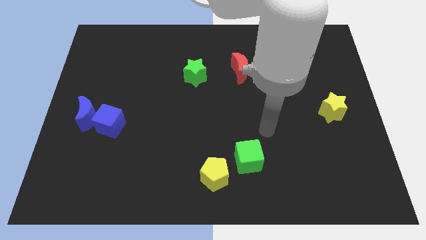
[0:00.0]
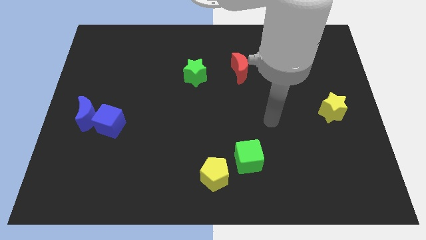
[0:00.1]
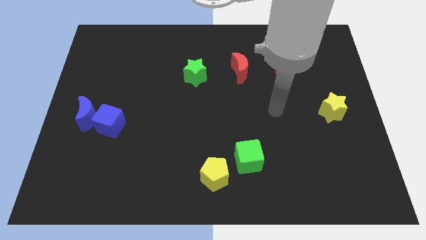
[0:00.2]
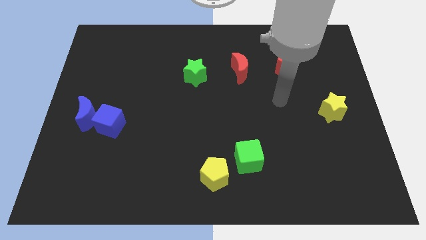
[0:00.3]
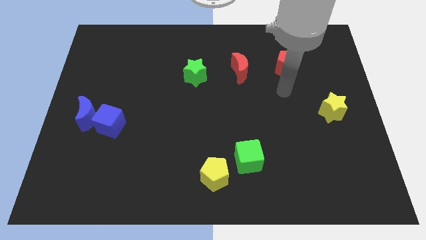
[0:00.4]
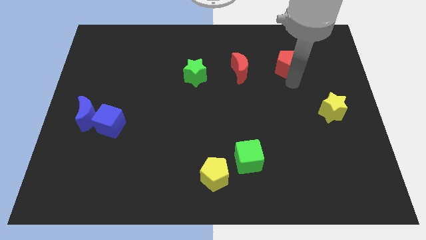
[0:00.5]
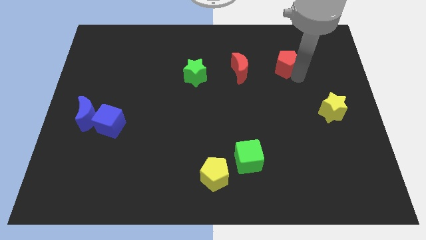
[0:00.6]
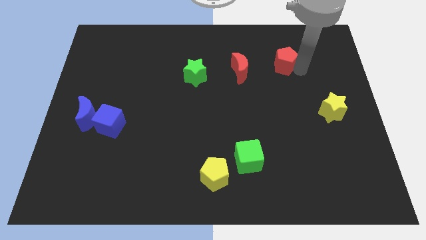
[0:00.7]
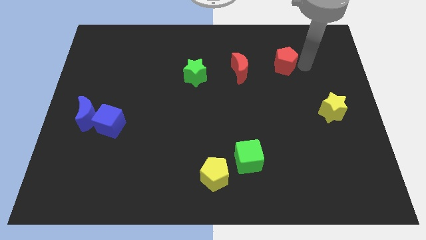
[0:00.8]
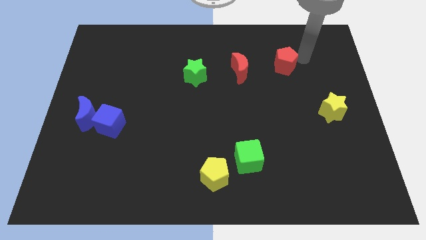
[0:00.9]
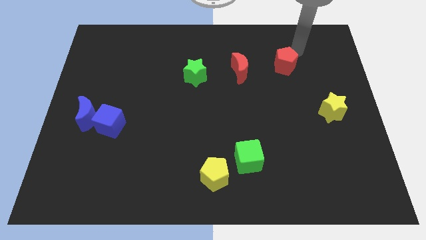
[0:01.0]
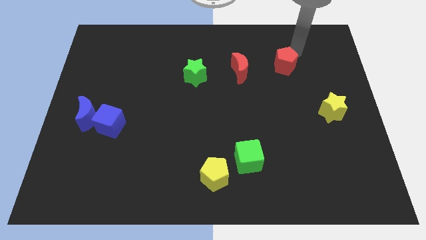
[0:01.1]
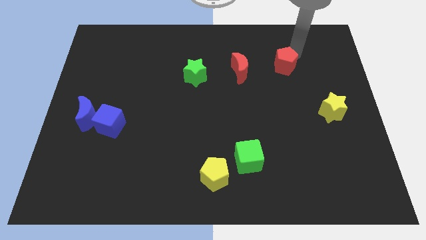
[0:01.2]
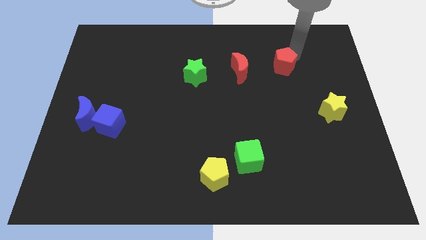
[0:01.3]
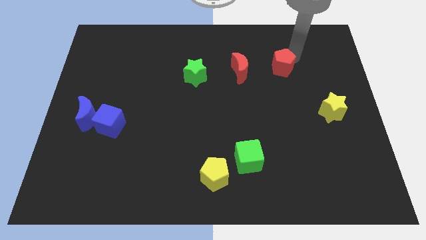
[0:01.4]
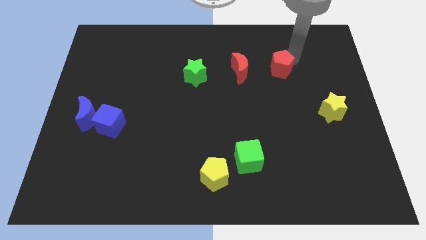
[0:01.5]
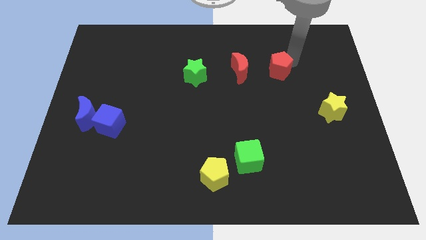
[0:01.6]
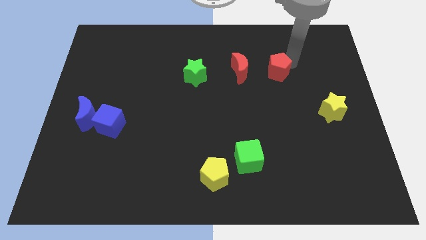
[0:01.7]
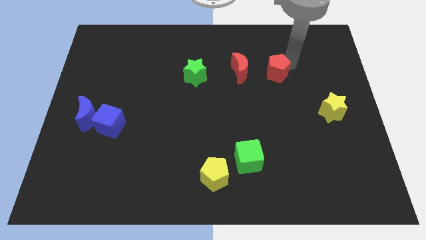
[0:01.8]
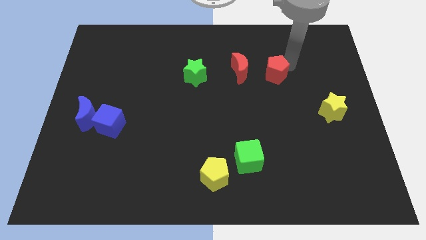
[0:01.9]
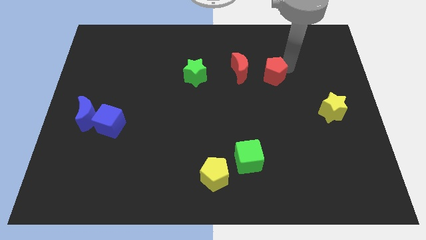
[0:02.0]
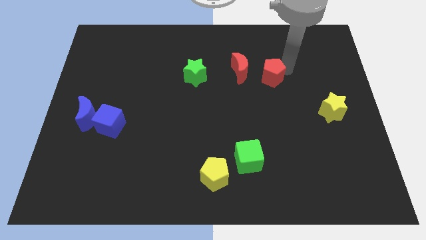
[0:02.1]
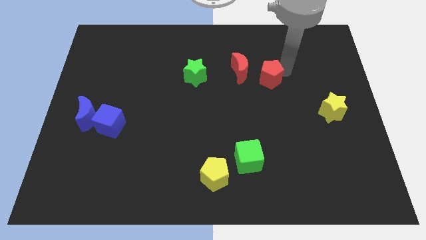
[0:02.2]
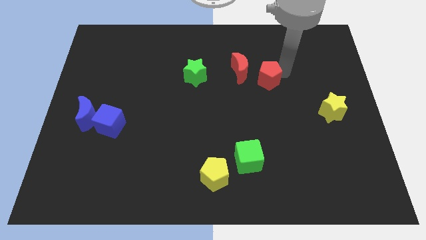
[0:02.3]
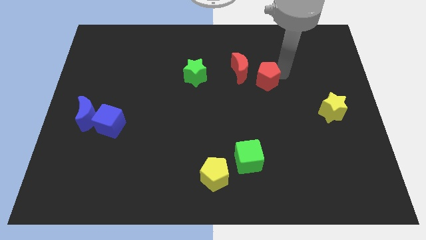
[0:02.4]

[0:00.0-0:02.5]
slide the red pentagon downwards and then left a little bit

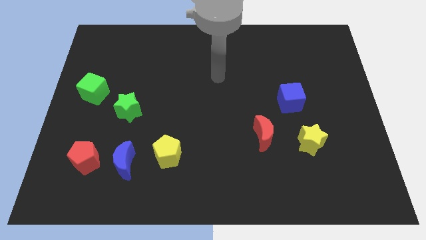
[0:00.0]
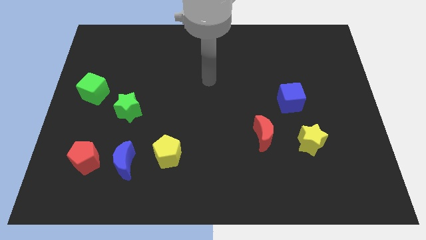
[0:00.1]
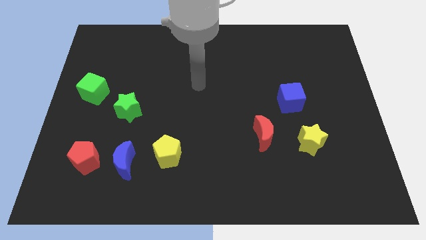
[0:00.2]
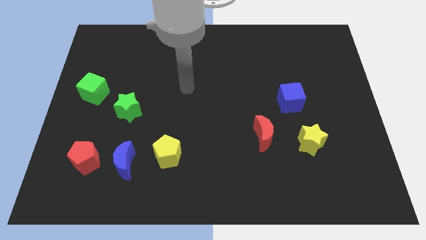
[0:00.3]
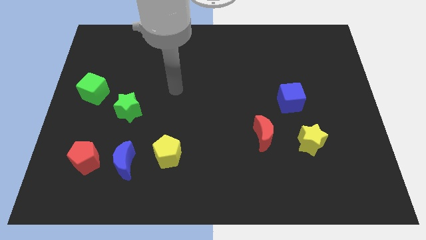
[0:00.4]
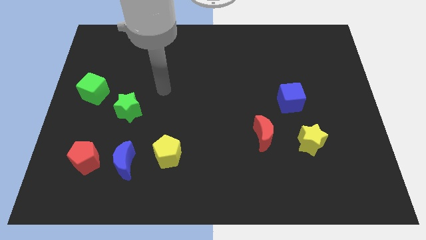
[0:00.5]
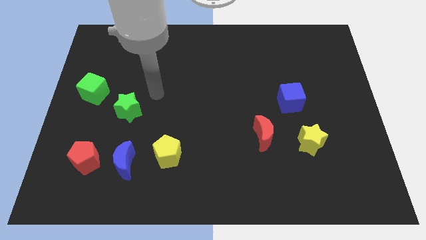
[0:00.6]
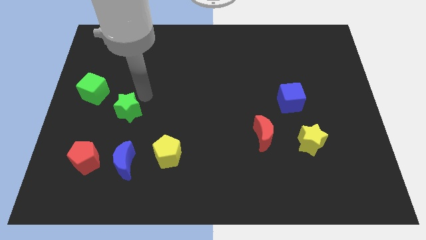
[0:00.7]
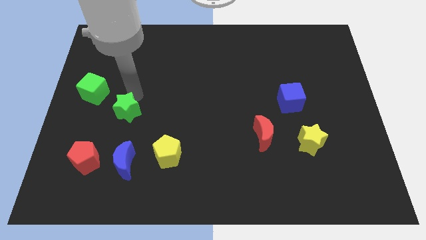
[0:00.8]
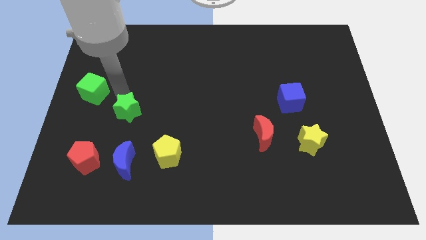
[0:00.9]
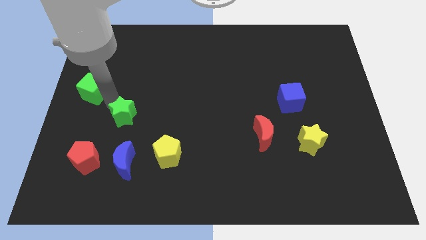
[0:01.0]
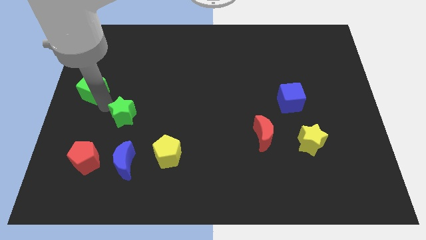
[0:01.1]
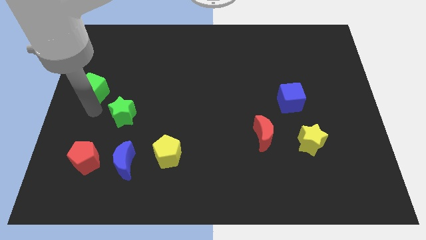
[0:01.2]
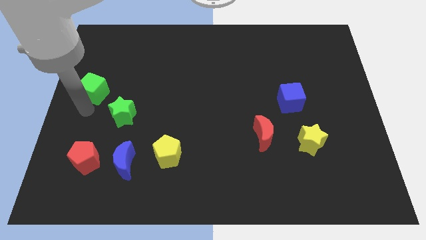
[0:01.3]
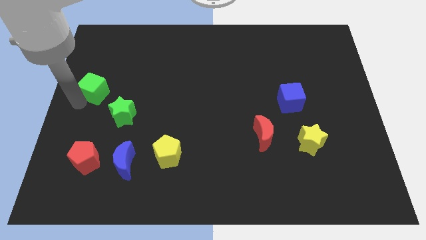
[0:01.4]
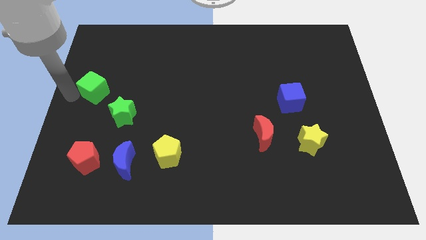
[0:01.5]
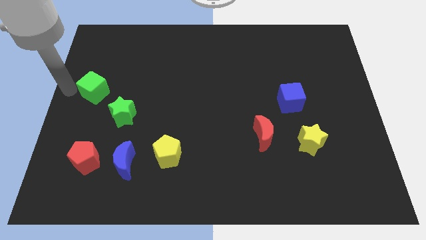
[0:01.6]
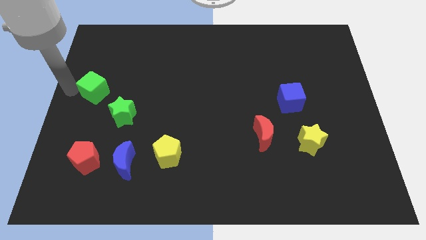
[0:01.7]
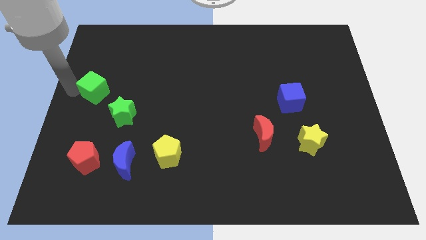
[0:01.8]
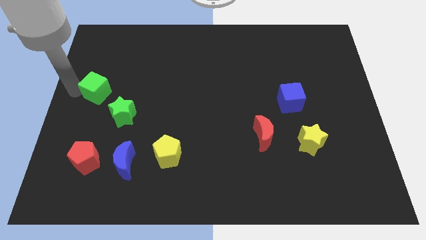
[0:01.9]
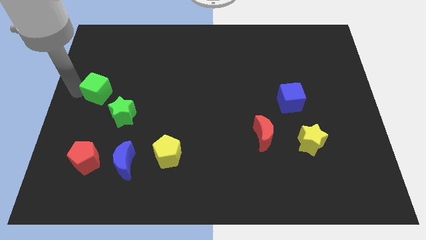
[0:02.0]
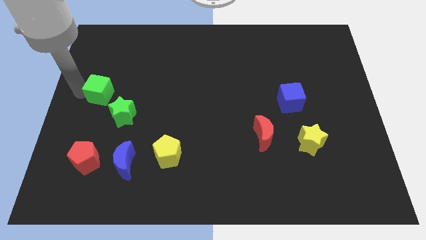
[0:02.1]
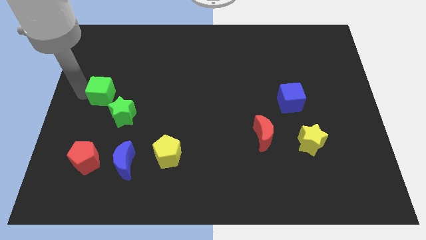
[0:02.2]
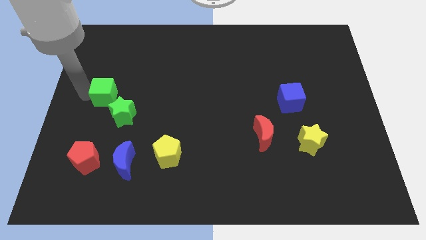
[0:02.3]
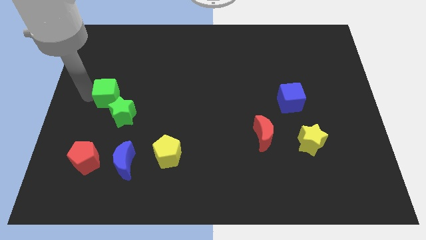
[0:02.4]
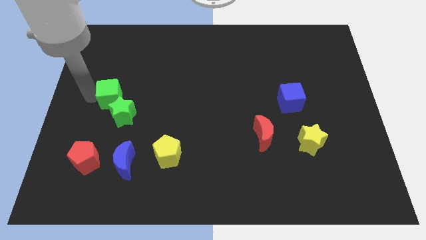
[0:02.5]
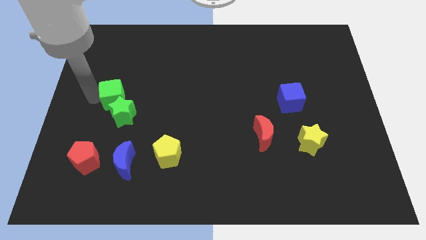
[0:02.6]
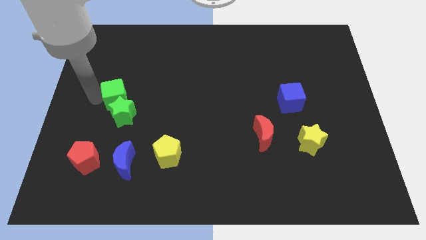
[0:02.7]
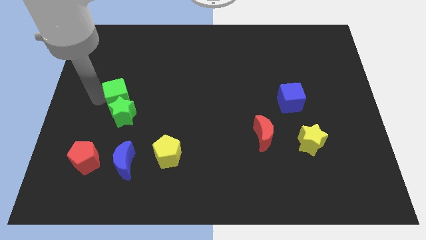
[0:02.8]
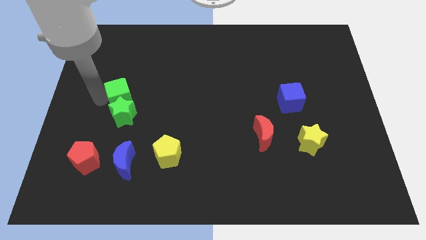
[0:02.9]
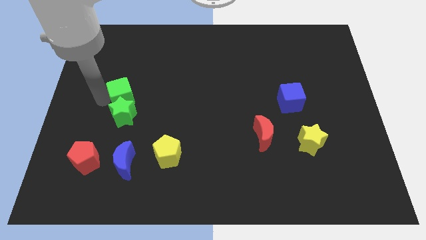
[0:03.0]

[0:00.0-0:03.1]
slide the green cube somewhat to the right

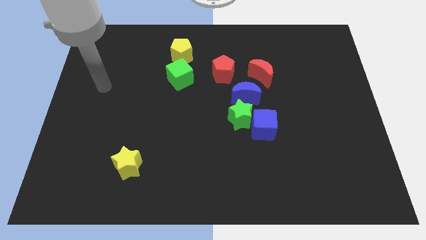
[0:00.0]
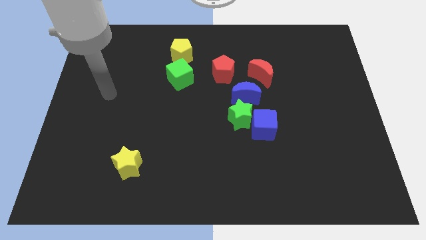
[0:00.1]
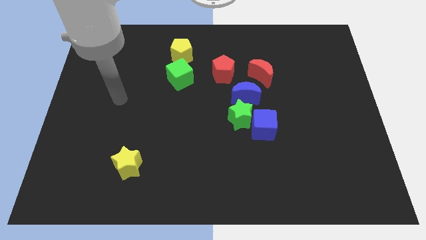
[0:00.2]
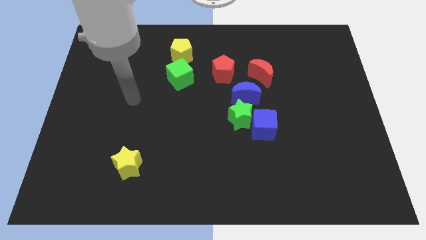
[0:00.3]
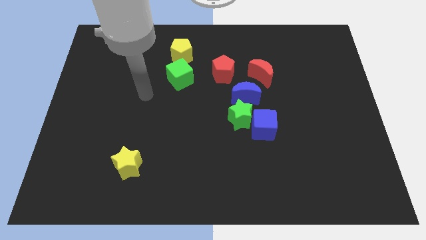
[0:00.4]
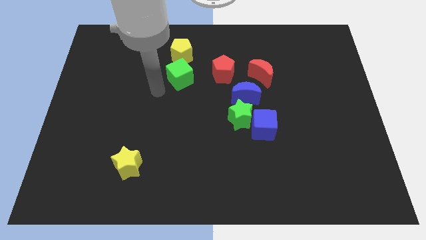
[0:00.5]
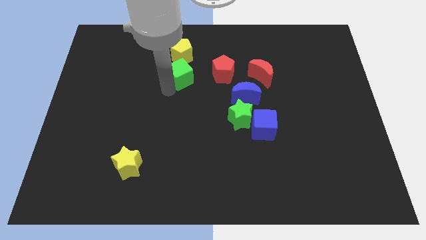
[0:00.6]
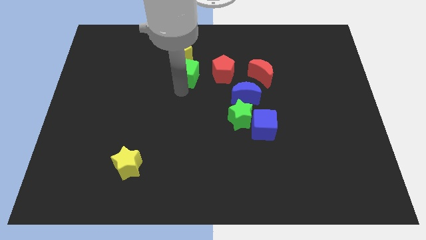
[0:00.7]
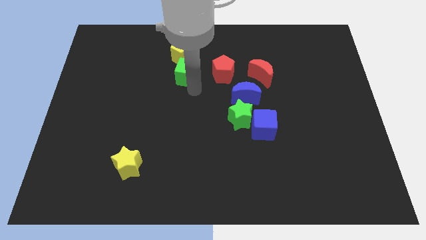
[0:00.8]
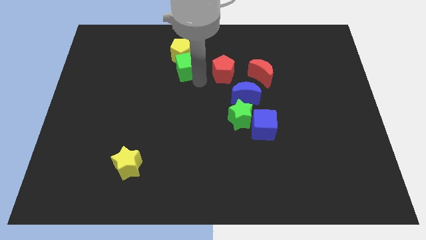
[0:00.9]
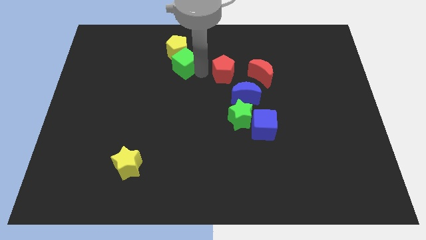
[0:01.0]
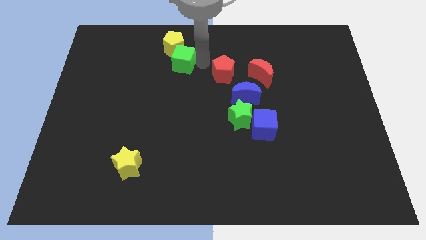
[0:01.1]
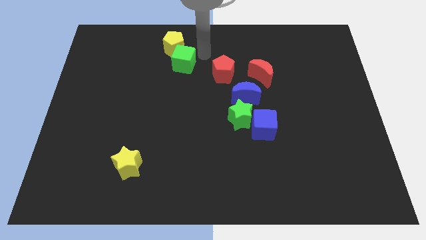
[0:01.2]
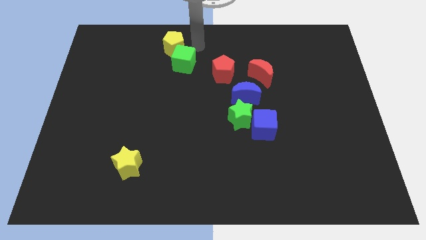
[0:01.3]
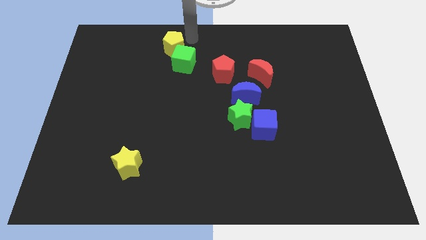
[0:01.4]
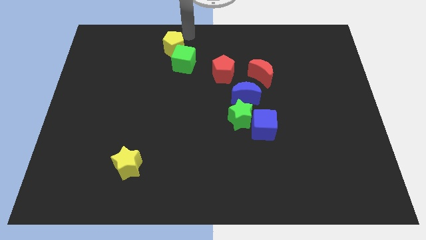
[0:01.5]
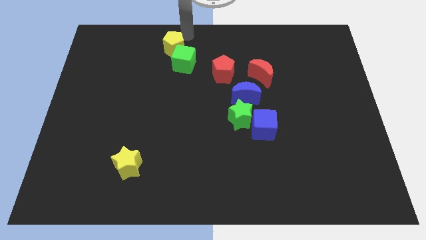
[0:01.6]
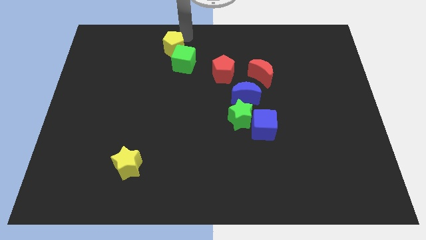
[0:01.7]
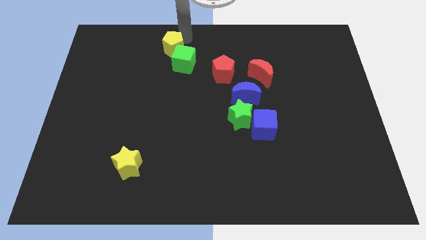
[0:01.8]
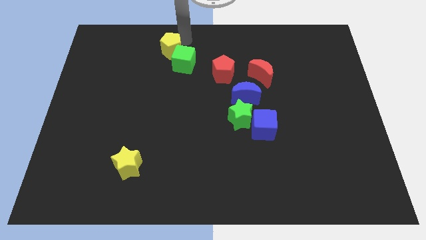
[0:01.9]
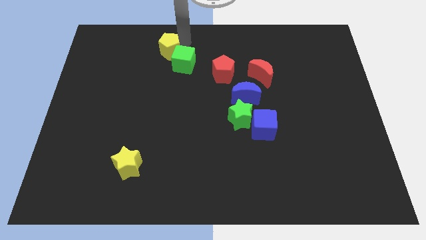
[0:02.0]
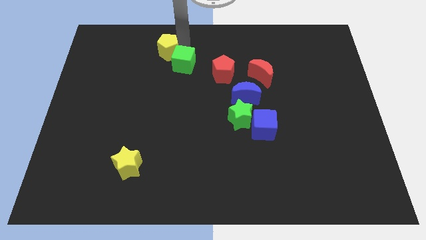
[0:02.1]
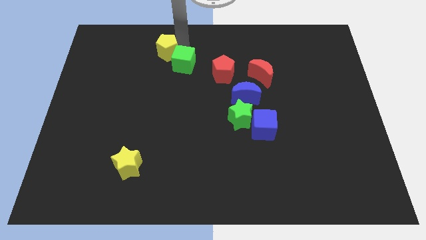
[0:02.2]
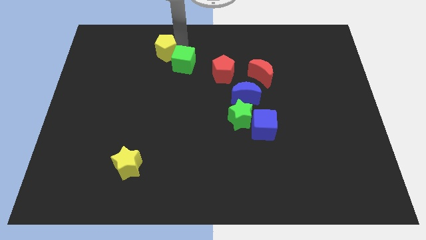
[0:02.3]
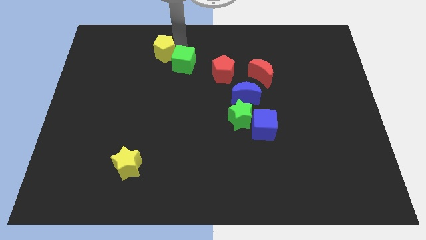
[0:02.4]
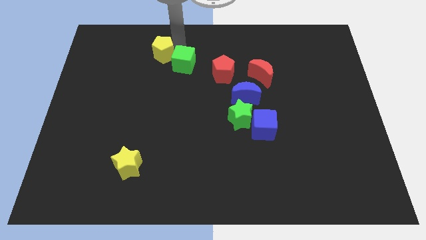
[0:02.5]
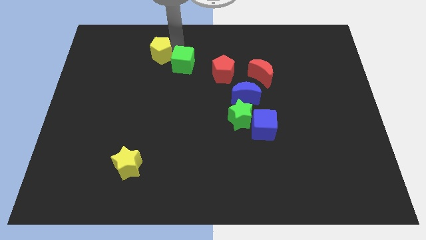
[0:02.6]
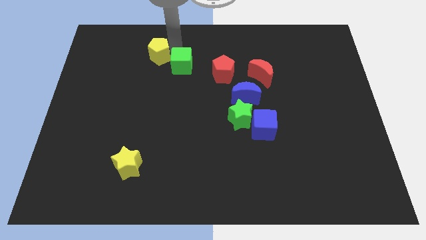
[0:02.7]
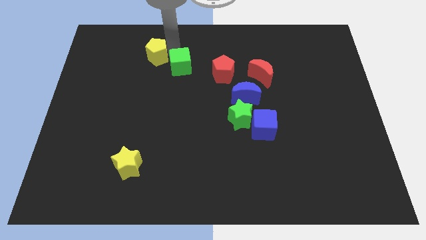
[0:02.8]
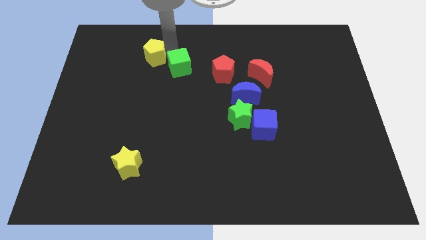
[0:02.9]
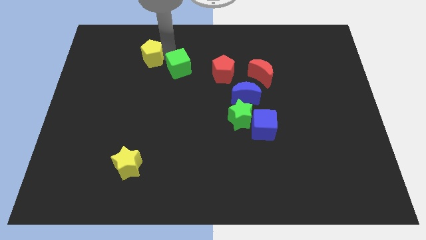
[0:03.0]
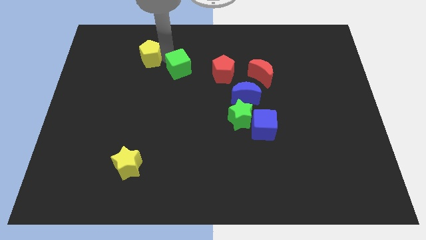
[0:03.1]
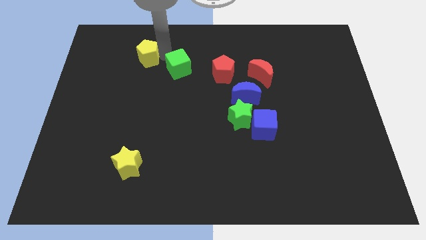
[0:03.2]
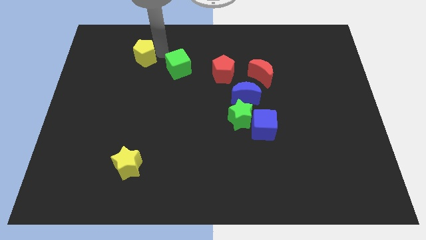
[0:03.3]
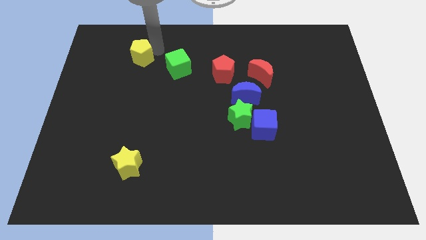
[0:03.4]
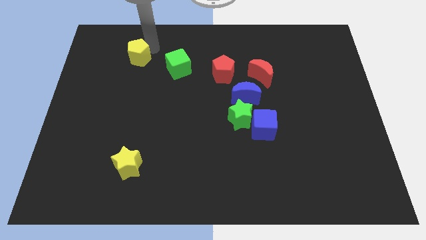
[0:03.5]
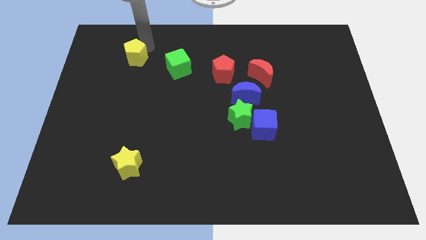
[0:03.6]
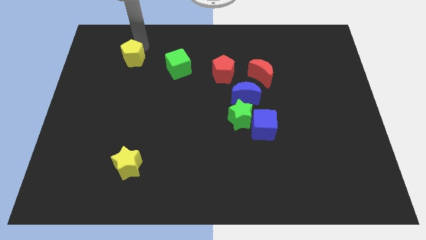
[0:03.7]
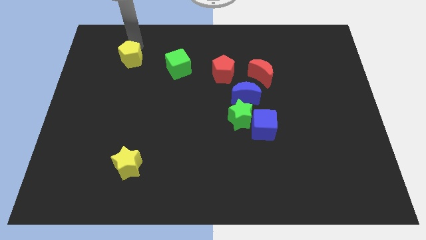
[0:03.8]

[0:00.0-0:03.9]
slightly move the yellow pentagon downwards and then to the left
